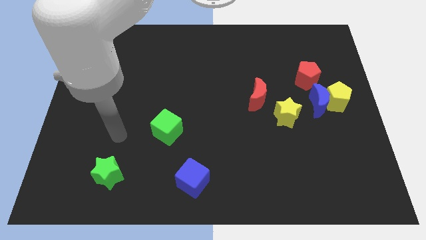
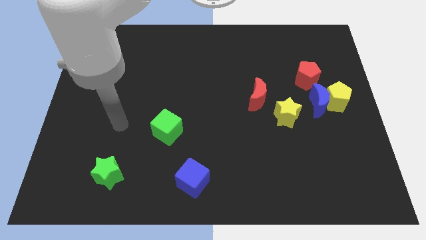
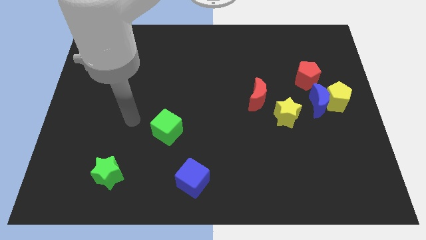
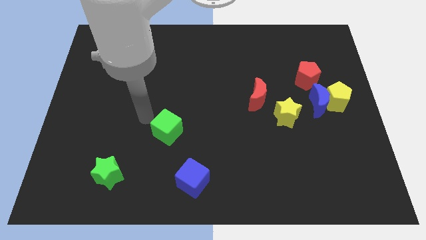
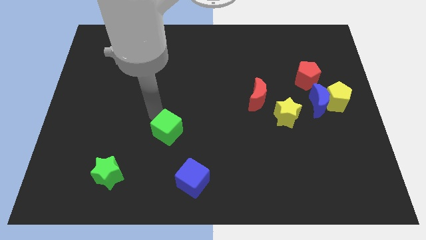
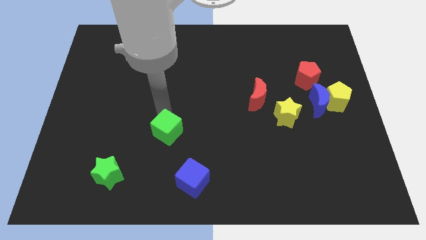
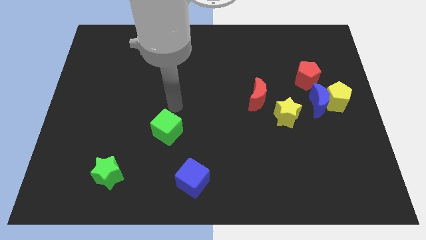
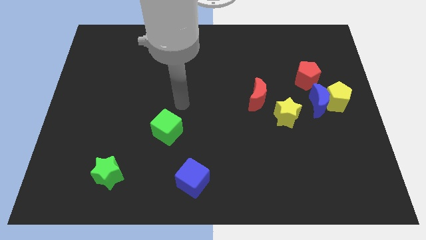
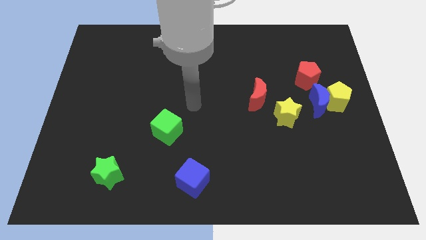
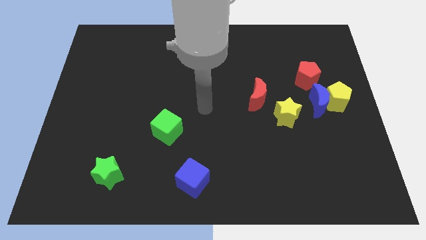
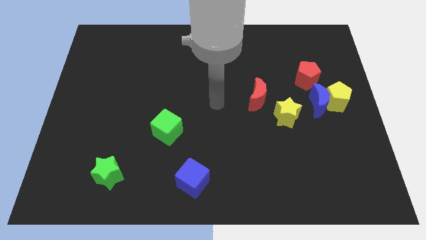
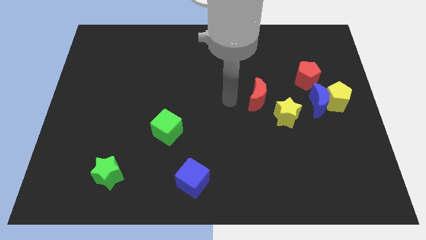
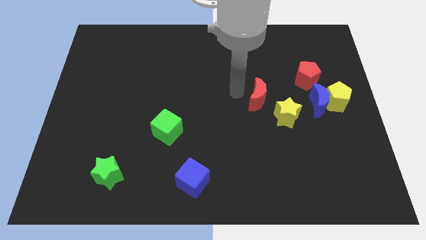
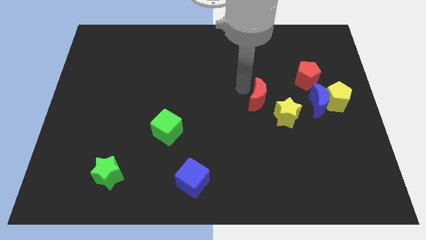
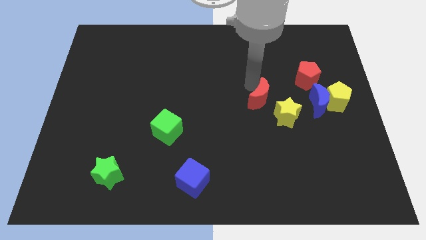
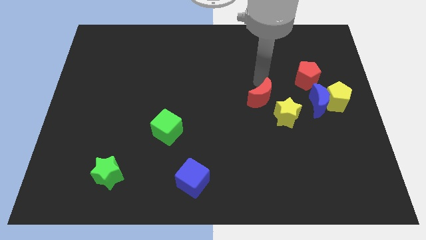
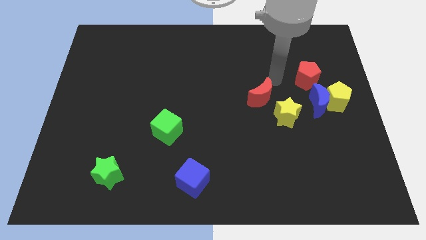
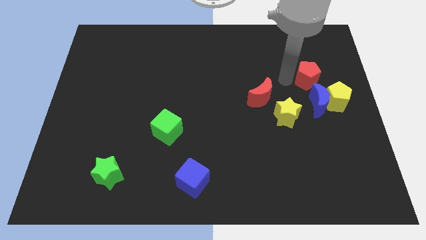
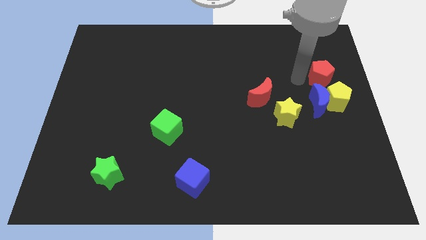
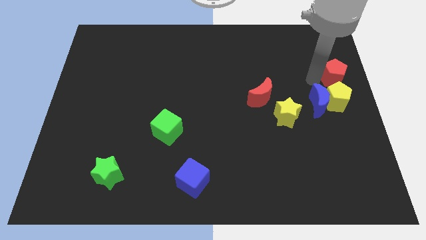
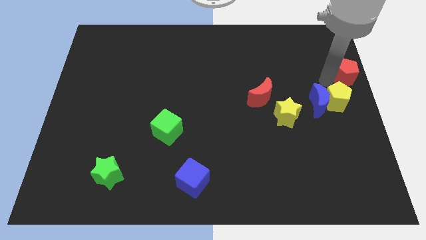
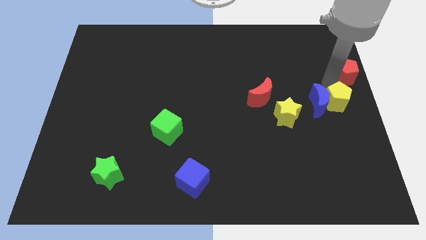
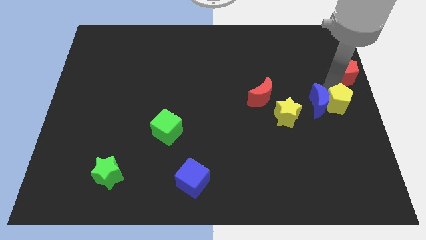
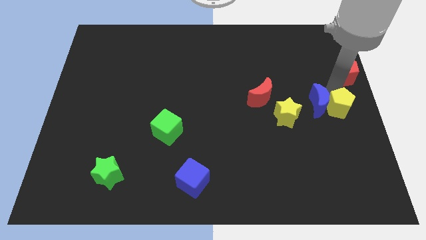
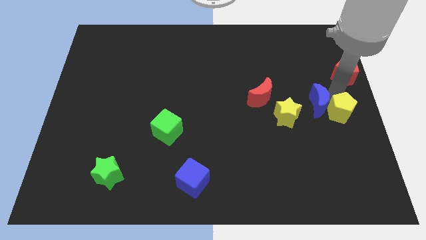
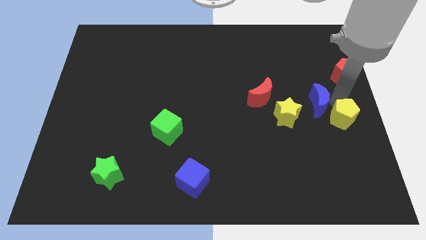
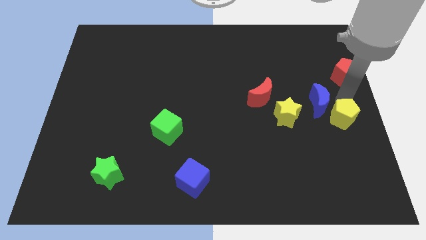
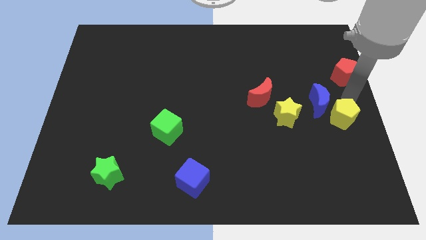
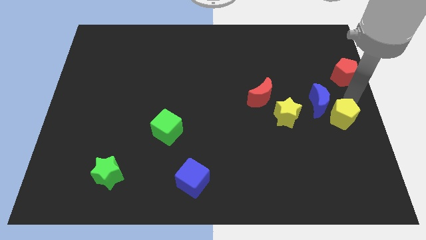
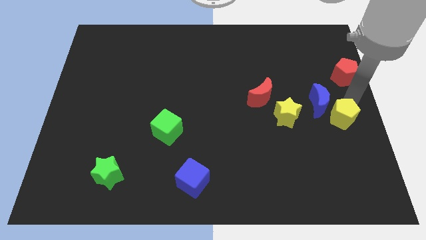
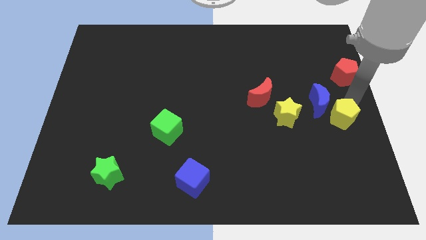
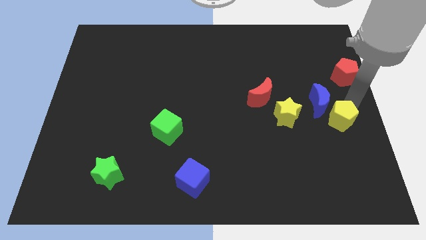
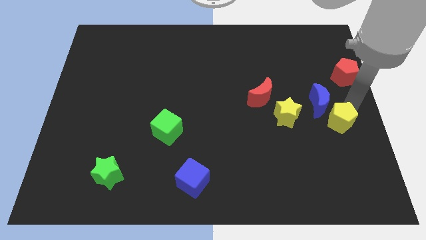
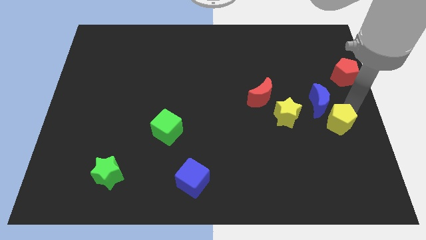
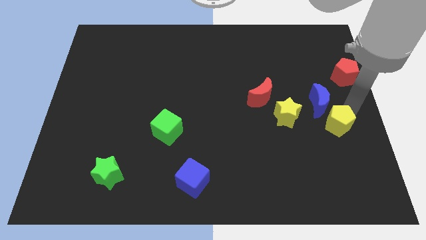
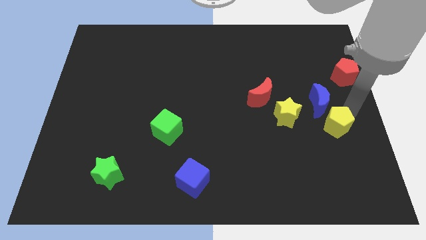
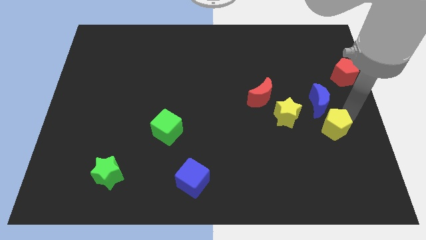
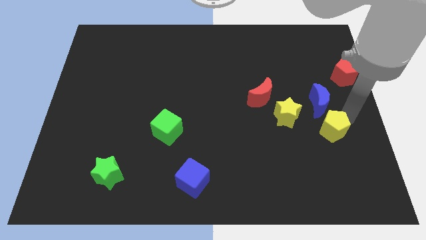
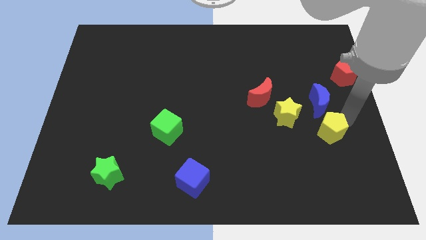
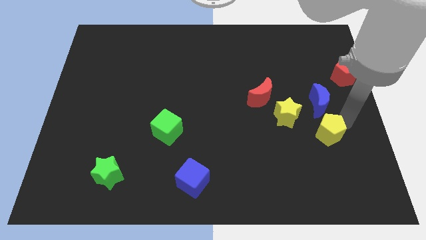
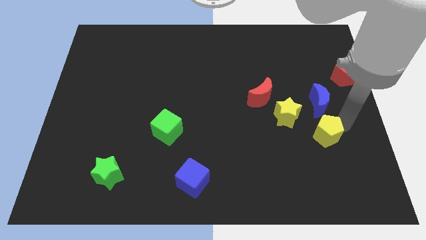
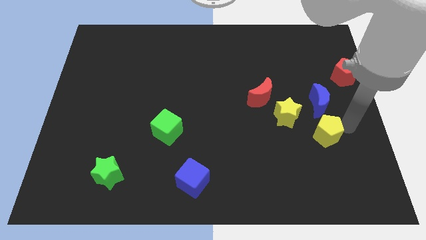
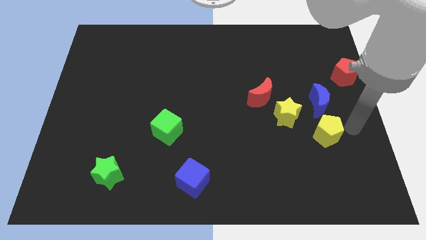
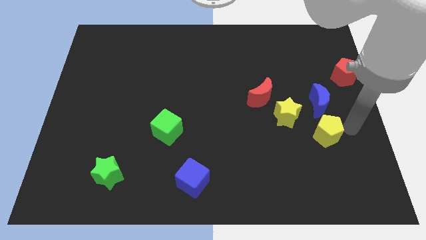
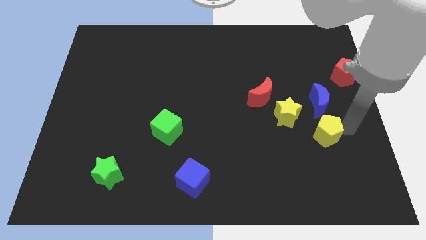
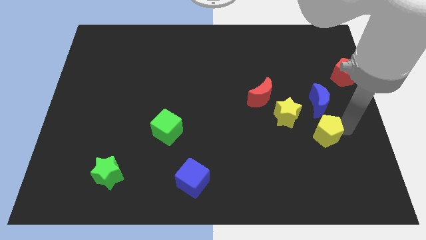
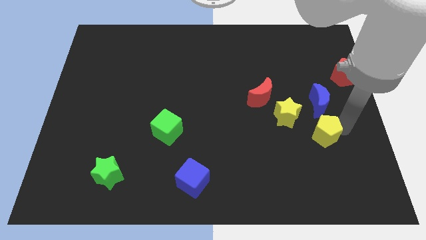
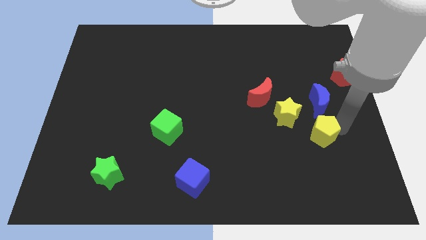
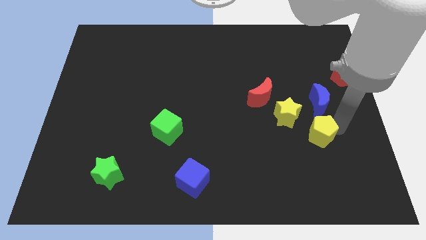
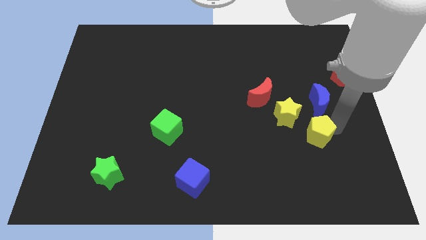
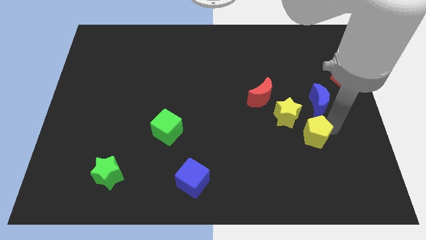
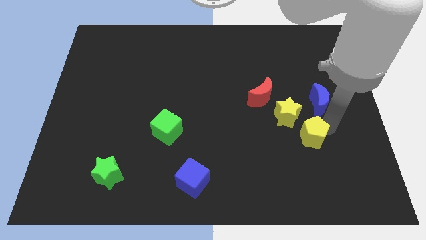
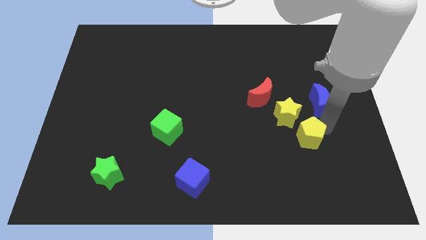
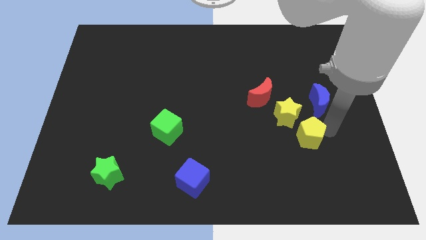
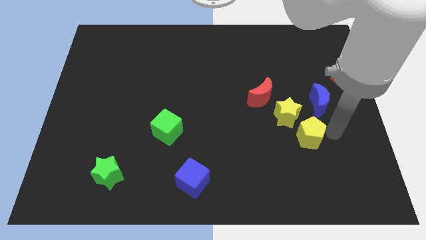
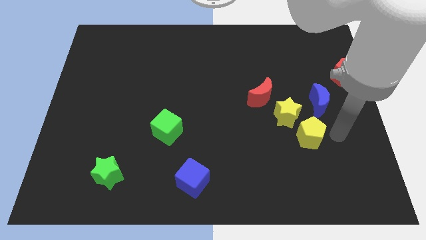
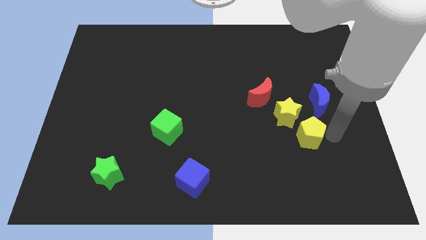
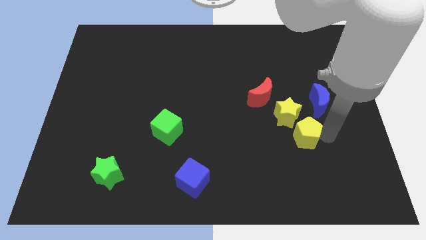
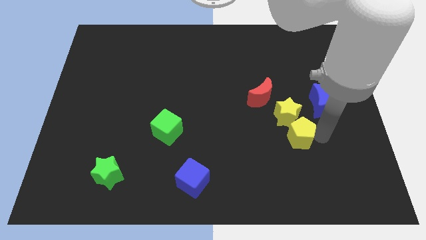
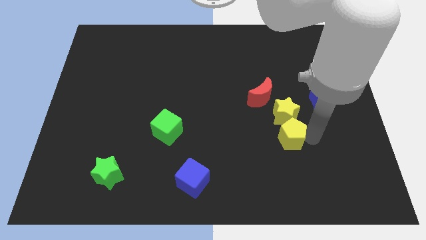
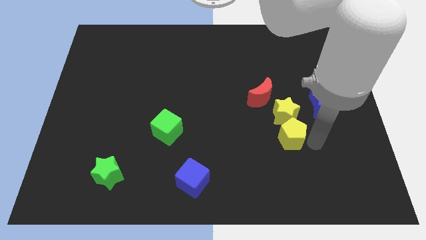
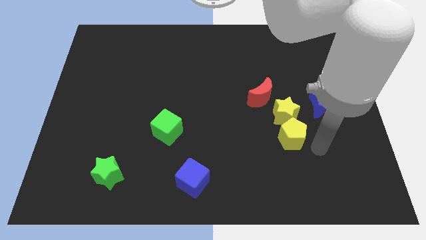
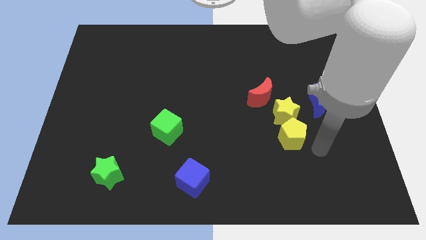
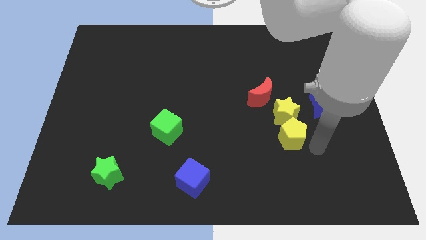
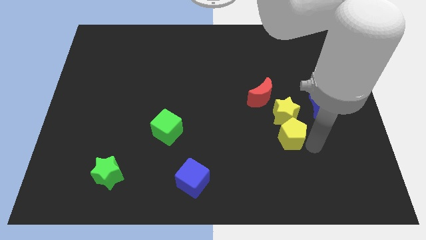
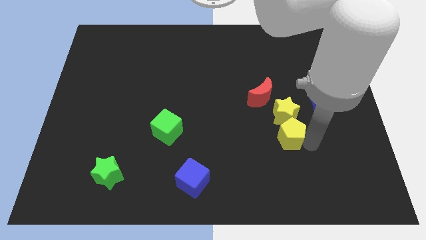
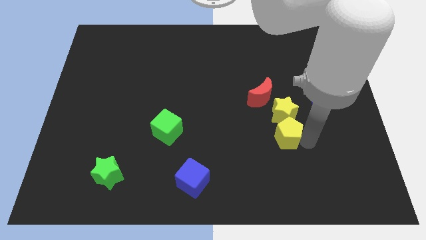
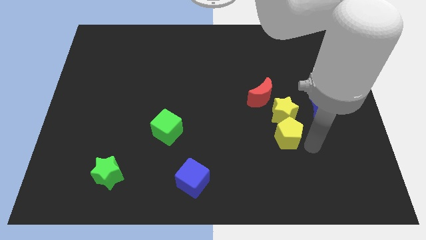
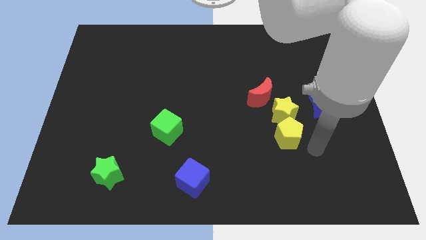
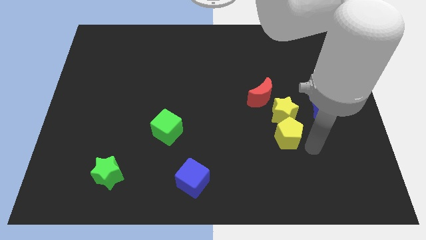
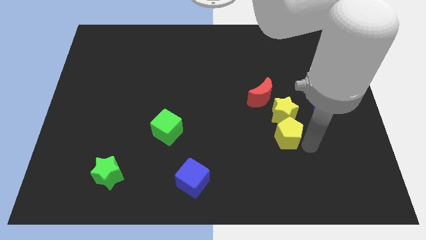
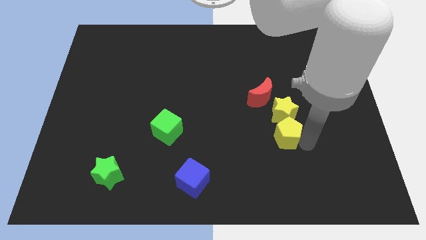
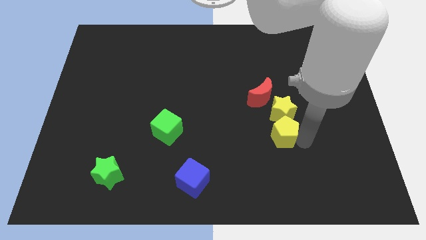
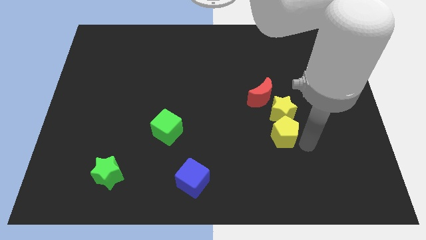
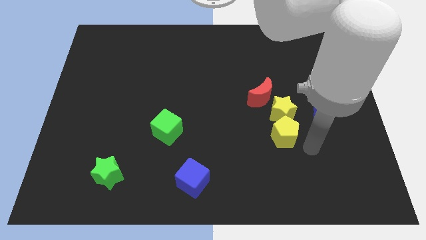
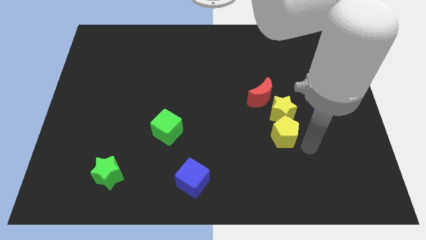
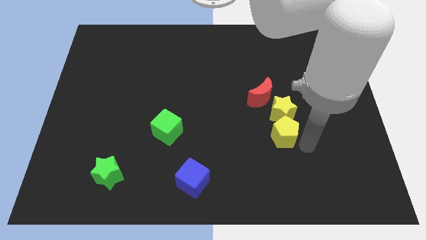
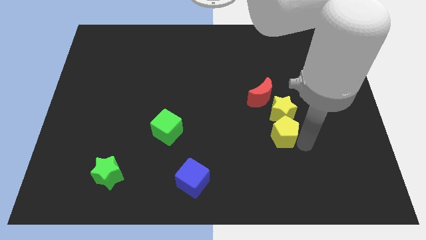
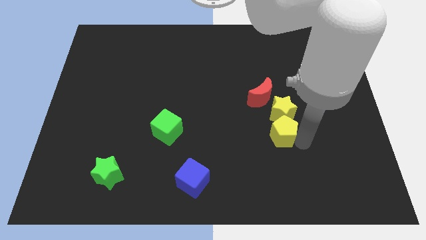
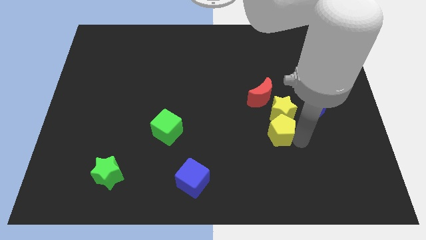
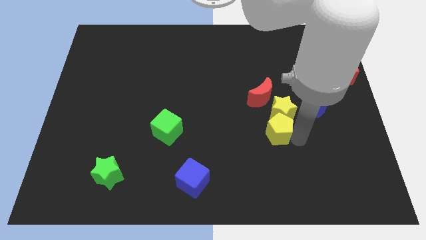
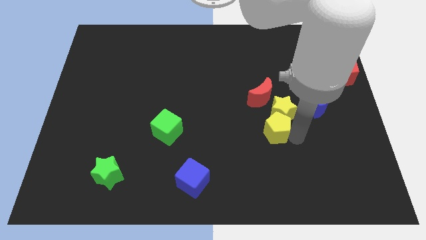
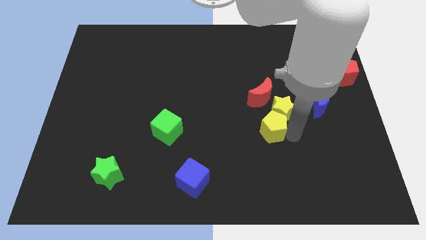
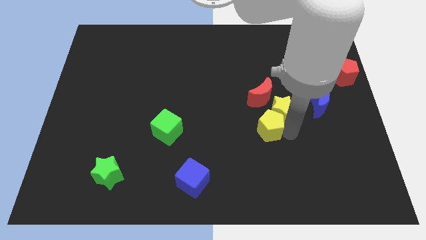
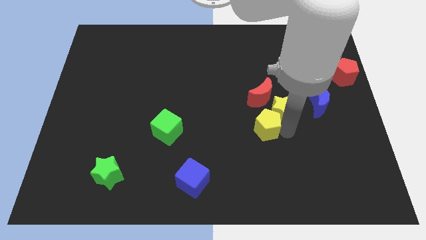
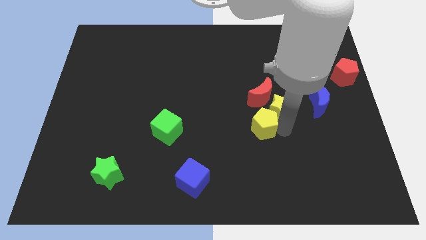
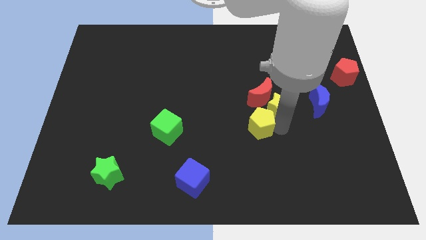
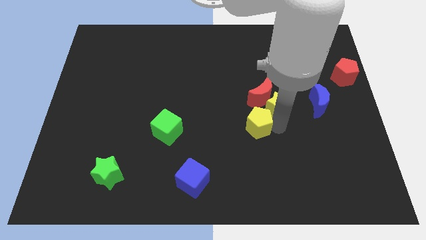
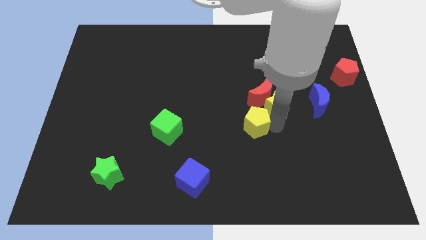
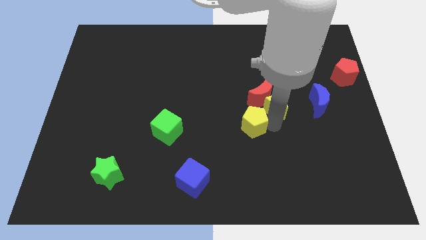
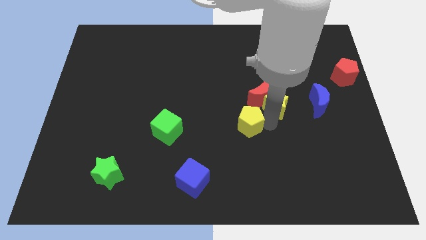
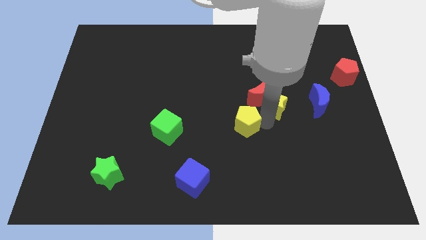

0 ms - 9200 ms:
move the yellow pentagon left
